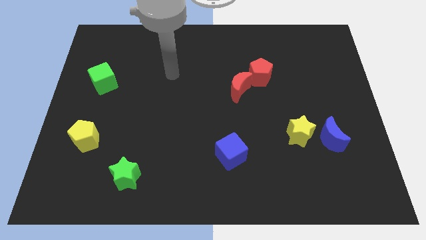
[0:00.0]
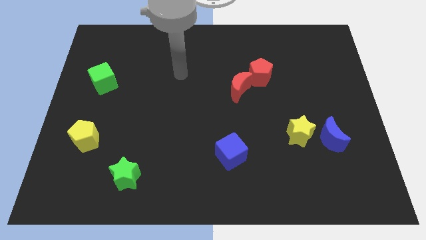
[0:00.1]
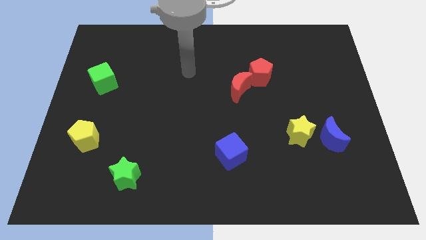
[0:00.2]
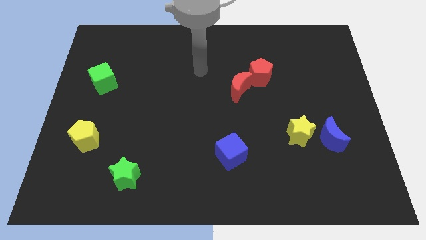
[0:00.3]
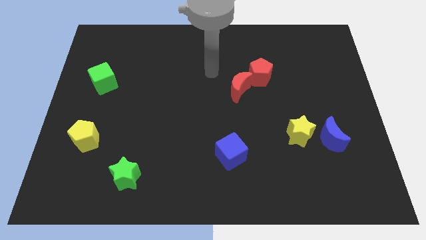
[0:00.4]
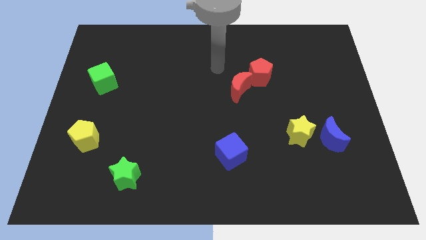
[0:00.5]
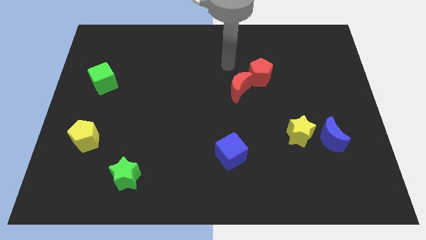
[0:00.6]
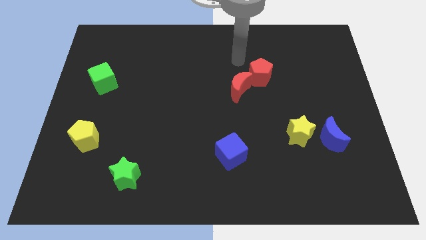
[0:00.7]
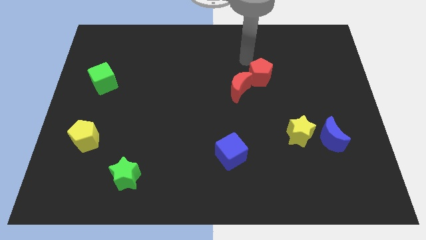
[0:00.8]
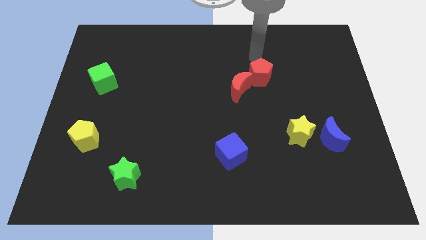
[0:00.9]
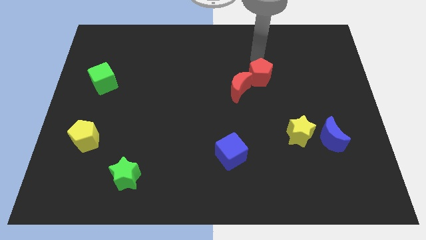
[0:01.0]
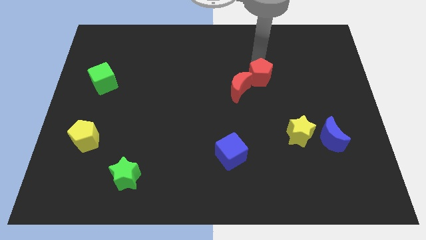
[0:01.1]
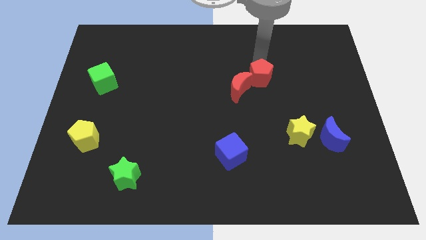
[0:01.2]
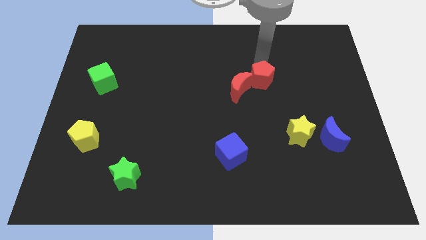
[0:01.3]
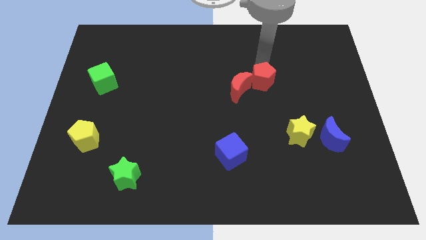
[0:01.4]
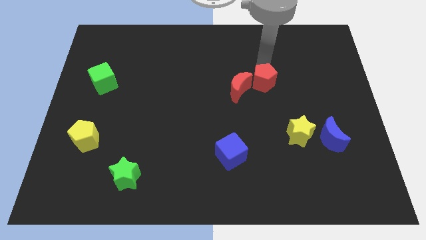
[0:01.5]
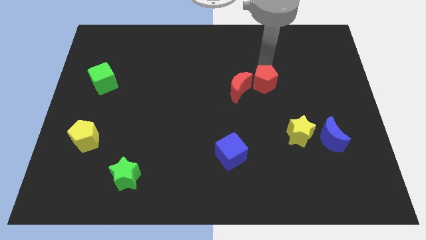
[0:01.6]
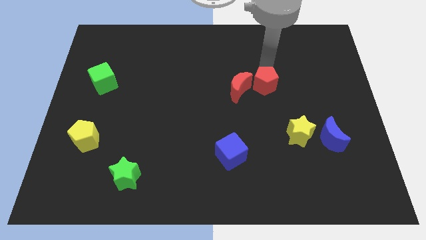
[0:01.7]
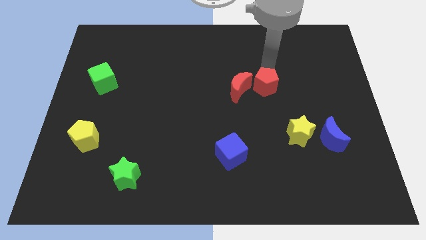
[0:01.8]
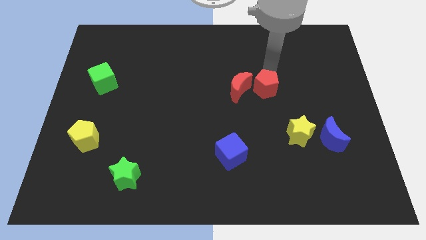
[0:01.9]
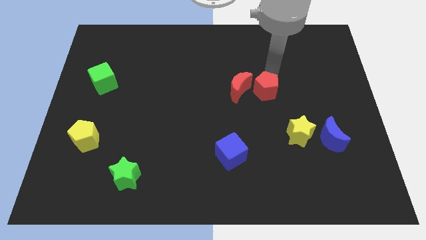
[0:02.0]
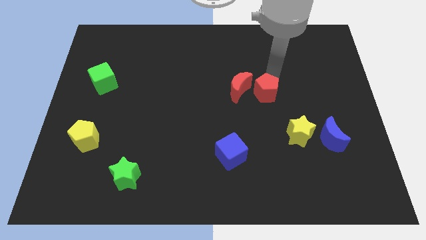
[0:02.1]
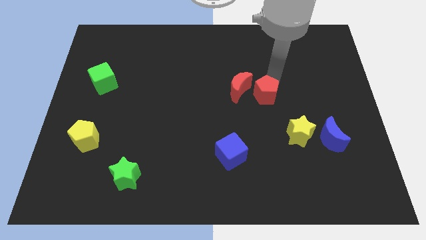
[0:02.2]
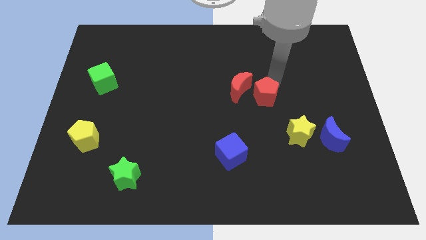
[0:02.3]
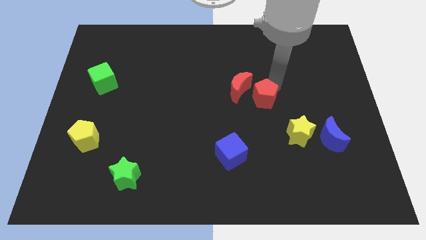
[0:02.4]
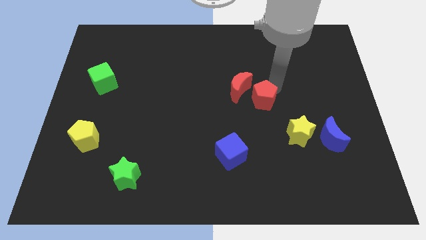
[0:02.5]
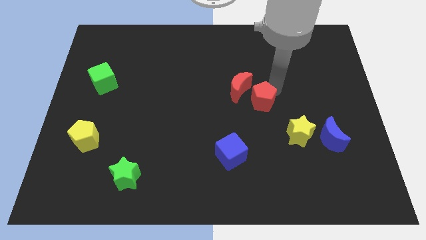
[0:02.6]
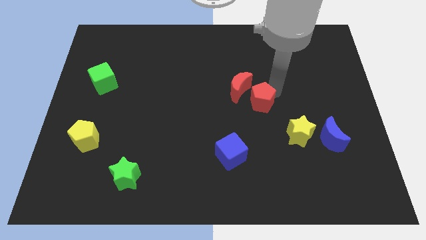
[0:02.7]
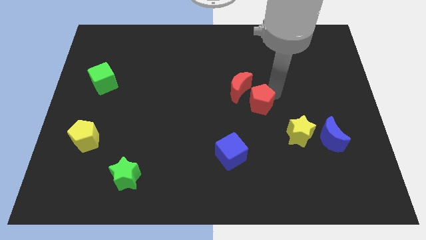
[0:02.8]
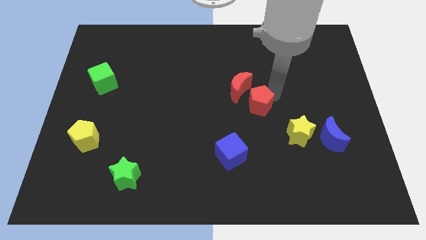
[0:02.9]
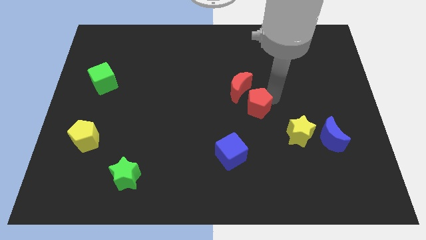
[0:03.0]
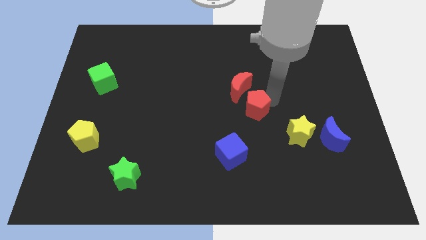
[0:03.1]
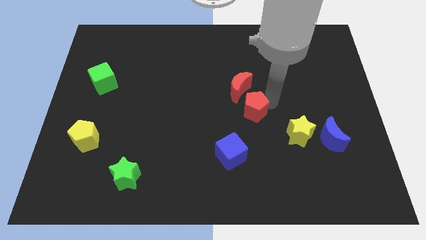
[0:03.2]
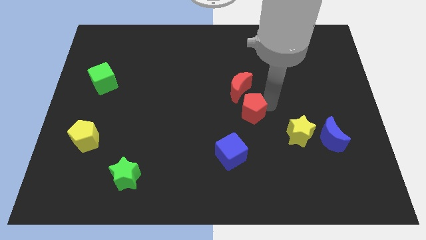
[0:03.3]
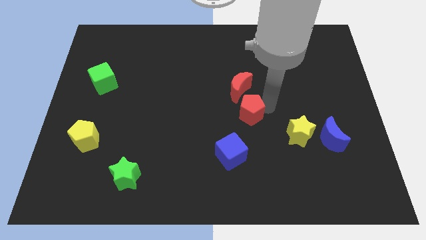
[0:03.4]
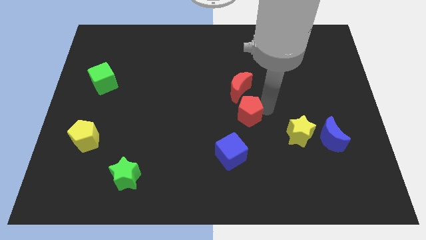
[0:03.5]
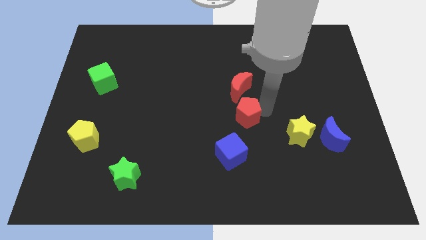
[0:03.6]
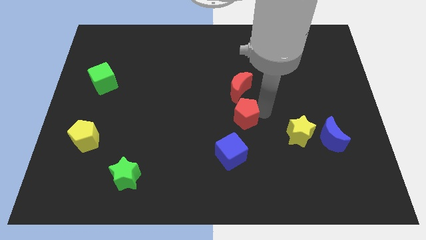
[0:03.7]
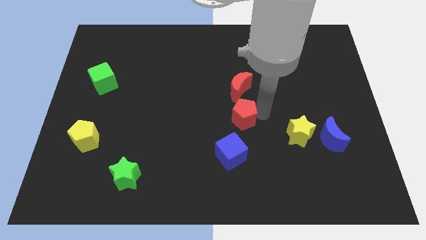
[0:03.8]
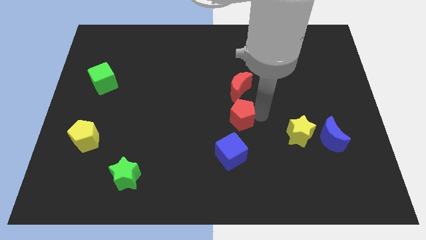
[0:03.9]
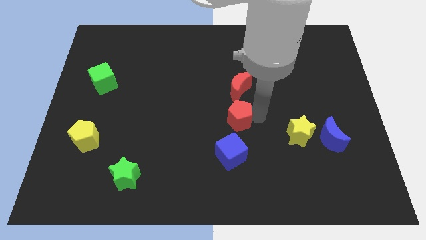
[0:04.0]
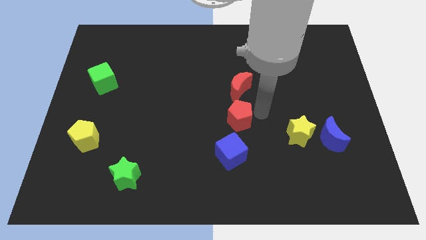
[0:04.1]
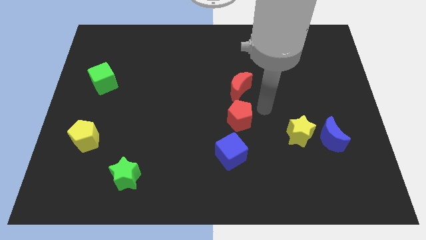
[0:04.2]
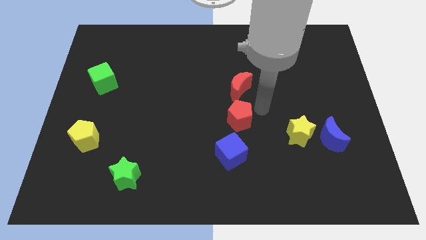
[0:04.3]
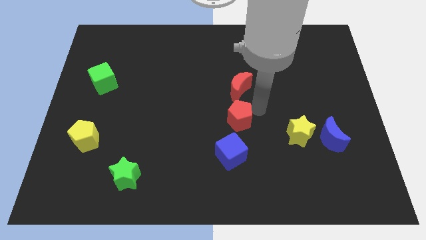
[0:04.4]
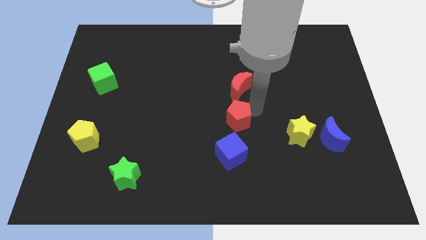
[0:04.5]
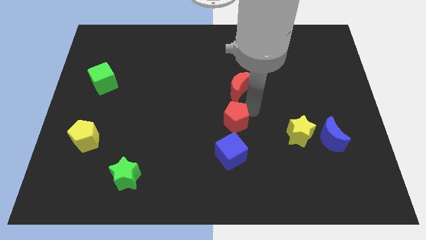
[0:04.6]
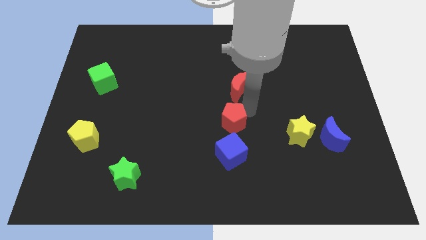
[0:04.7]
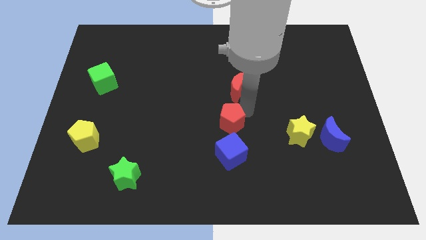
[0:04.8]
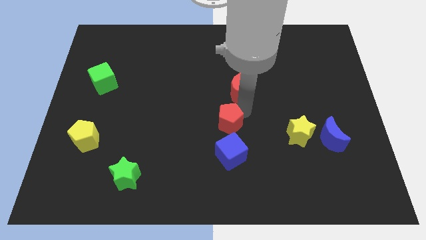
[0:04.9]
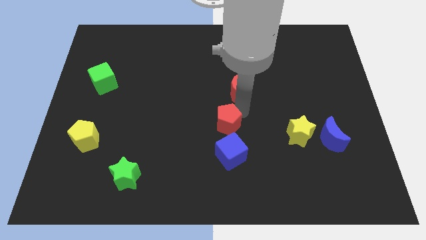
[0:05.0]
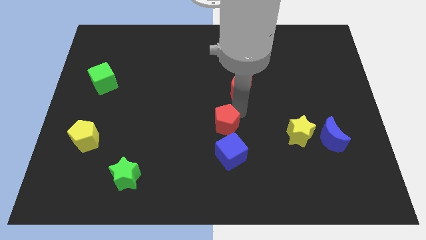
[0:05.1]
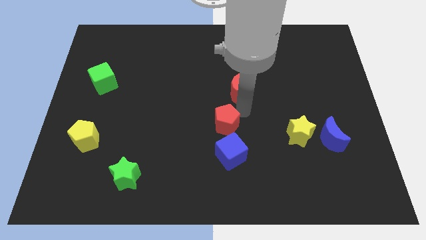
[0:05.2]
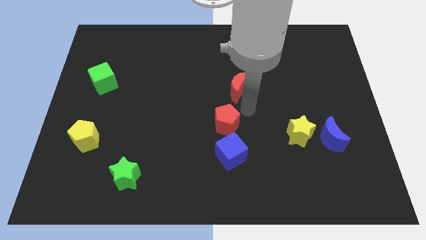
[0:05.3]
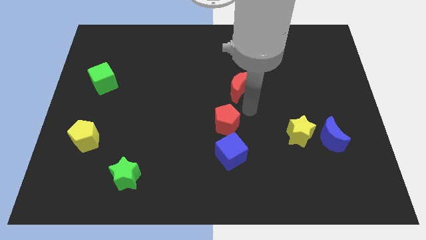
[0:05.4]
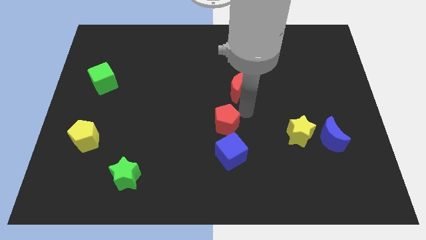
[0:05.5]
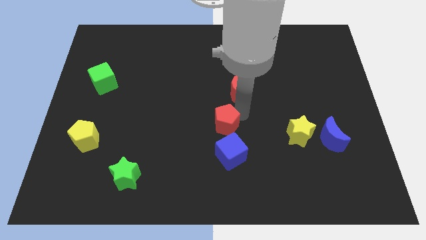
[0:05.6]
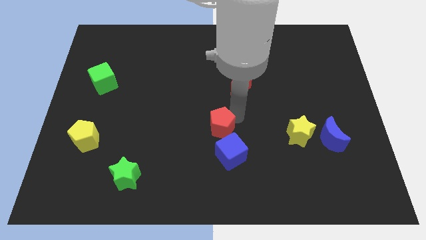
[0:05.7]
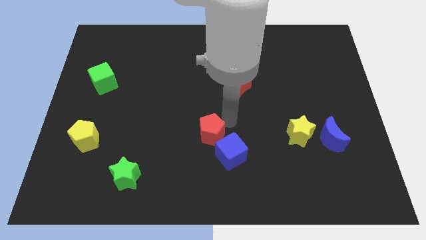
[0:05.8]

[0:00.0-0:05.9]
move the red pentagon down and left

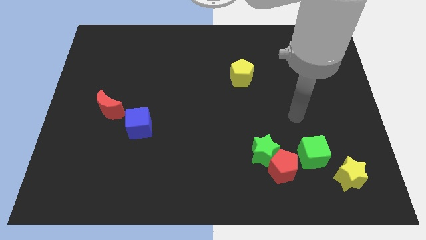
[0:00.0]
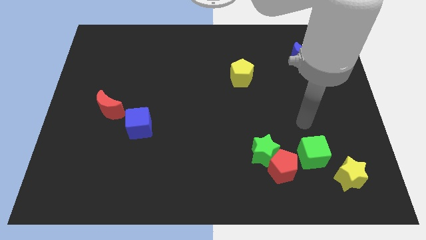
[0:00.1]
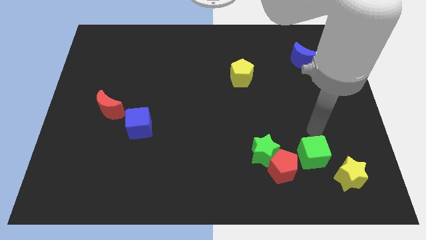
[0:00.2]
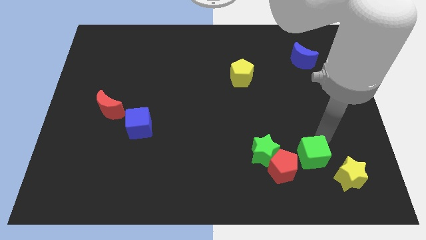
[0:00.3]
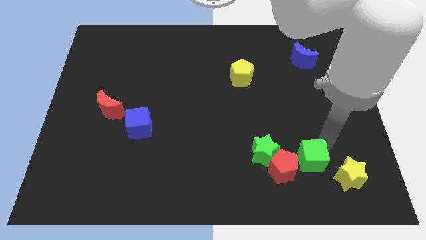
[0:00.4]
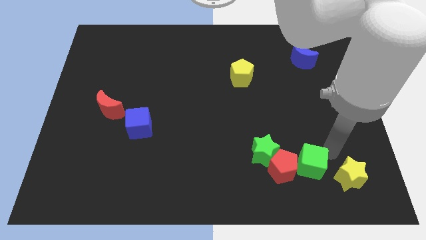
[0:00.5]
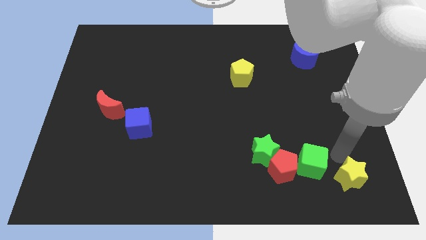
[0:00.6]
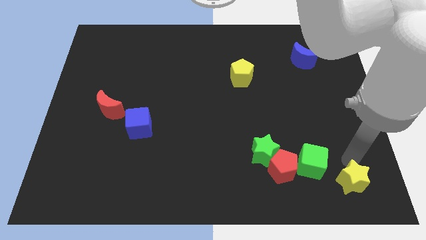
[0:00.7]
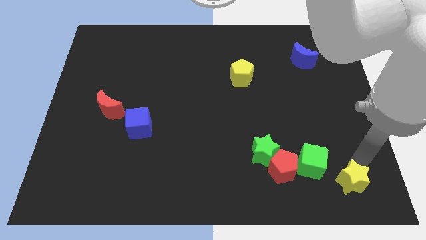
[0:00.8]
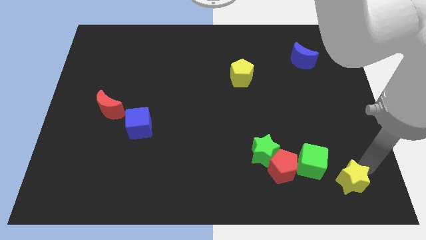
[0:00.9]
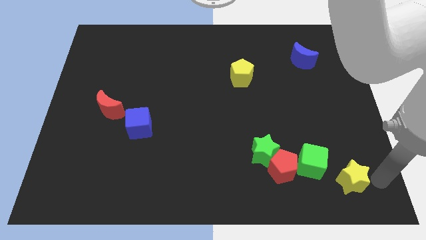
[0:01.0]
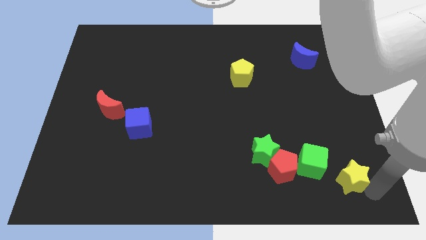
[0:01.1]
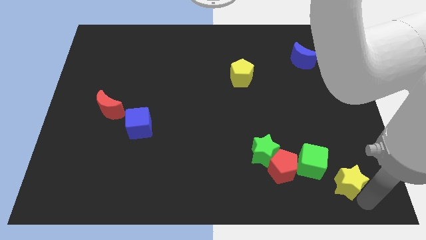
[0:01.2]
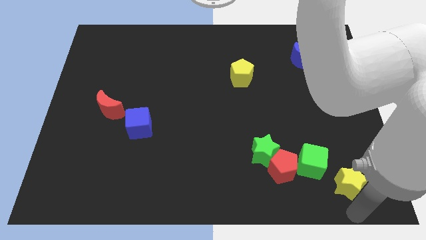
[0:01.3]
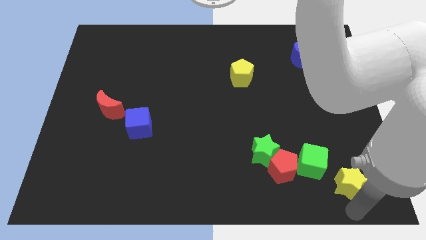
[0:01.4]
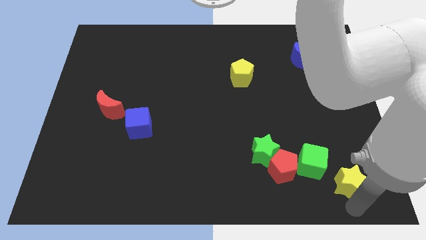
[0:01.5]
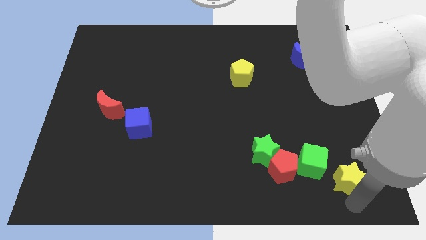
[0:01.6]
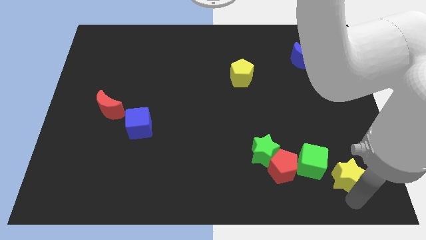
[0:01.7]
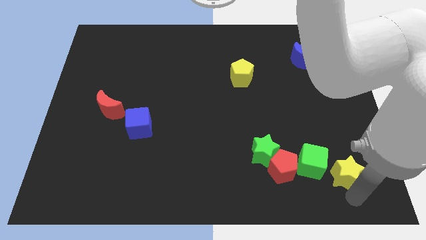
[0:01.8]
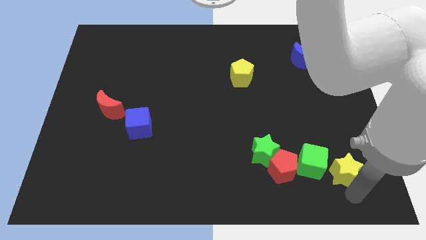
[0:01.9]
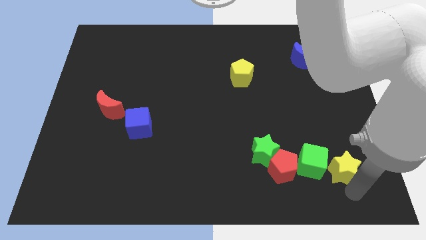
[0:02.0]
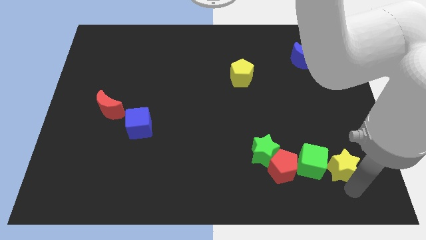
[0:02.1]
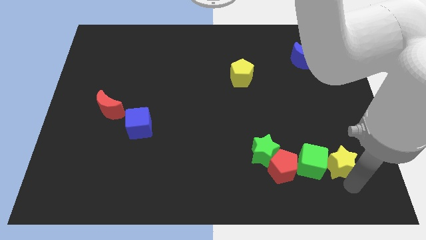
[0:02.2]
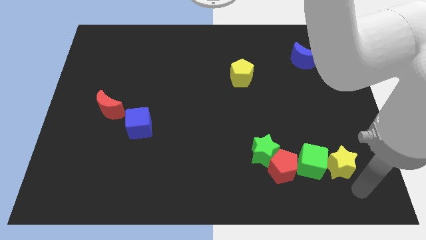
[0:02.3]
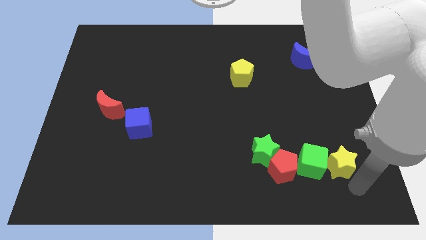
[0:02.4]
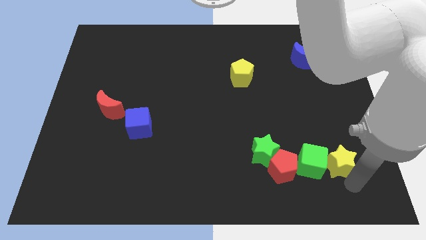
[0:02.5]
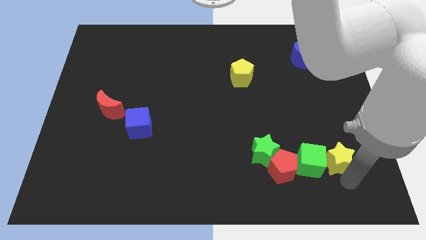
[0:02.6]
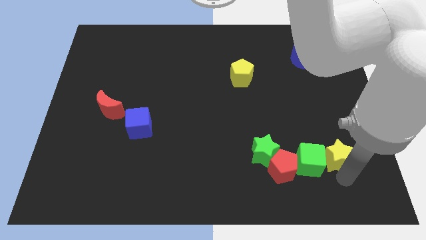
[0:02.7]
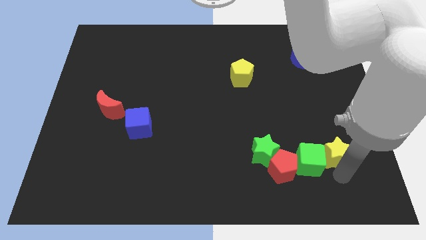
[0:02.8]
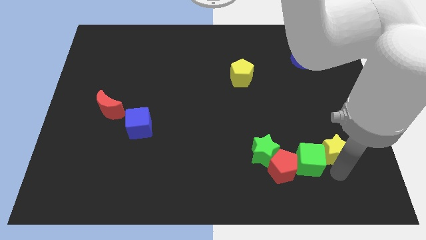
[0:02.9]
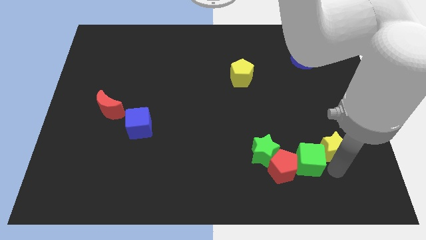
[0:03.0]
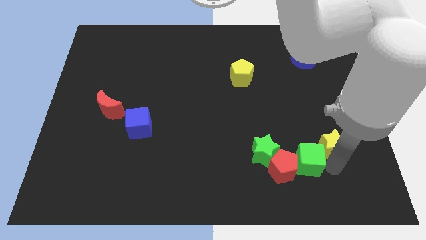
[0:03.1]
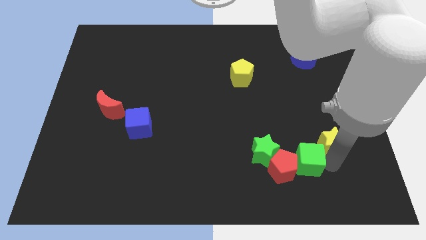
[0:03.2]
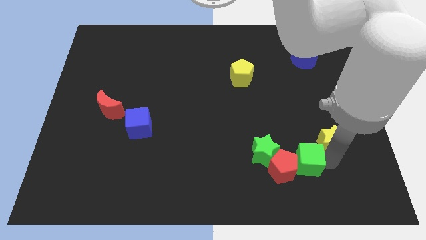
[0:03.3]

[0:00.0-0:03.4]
slightly push the yellow star up and then to the left
